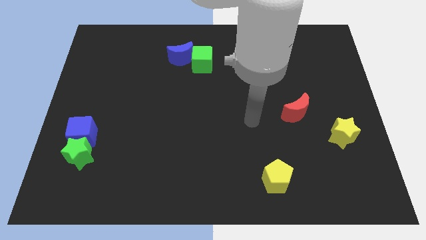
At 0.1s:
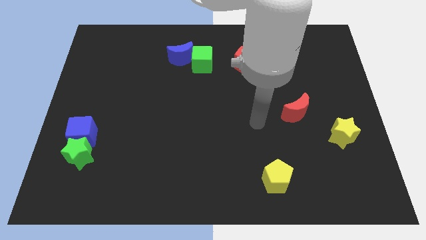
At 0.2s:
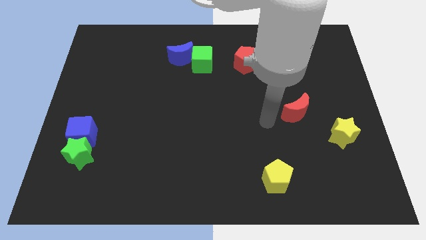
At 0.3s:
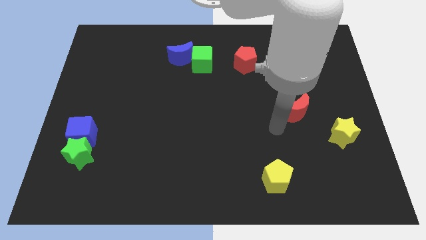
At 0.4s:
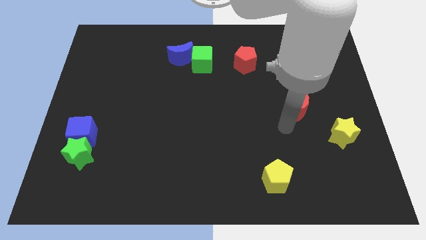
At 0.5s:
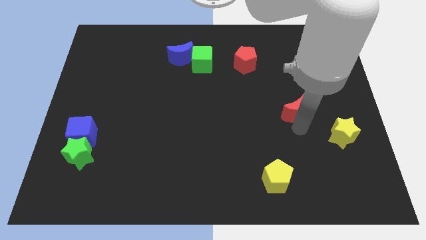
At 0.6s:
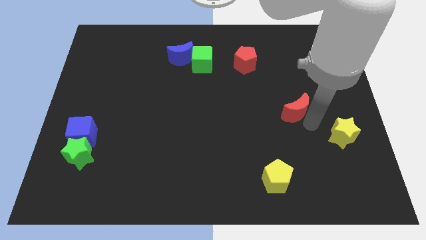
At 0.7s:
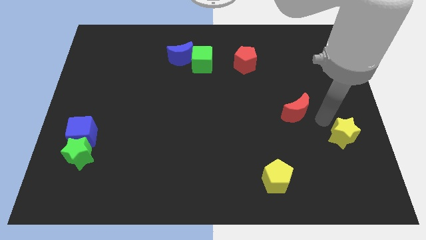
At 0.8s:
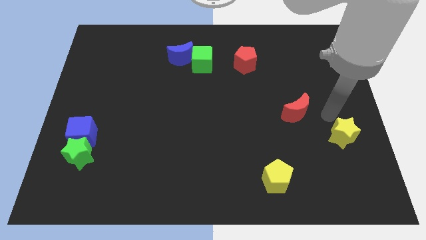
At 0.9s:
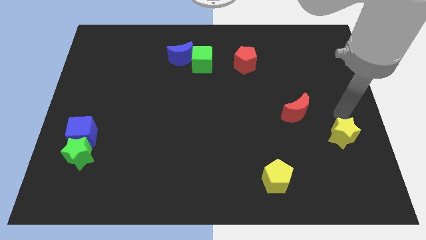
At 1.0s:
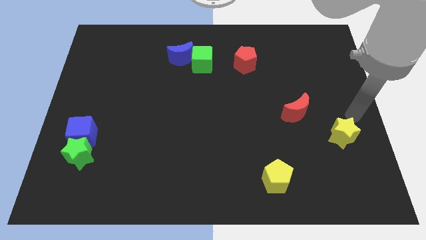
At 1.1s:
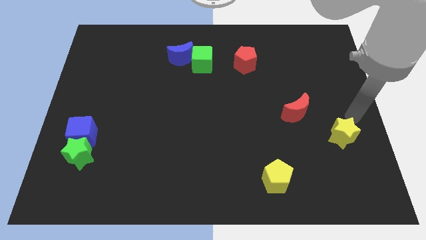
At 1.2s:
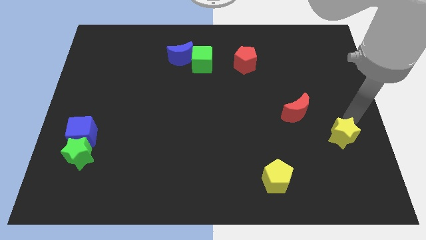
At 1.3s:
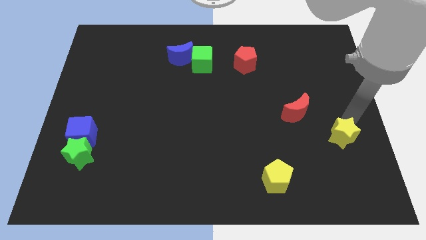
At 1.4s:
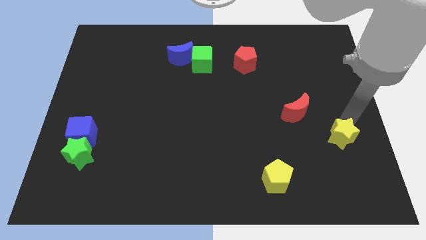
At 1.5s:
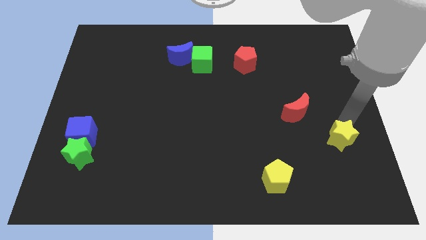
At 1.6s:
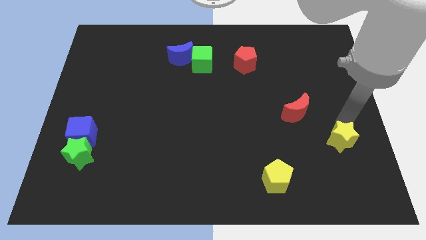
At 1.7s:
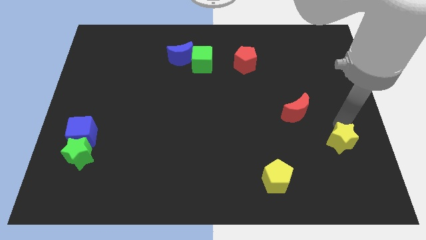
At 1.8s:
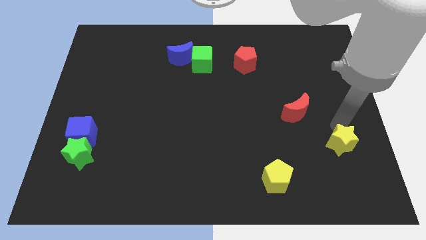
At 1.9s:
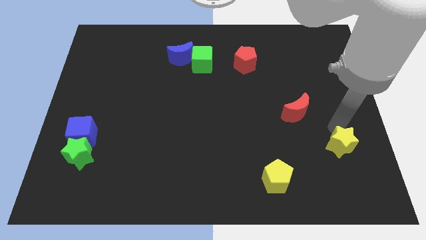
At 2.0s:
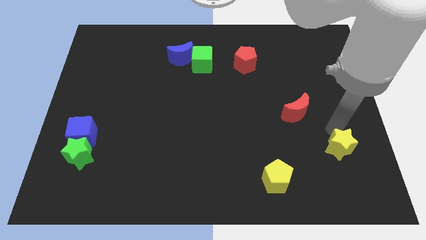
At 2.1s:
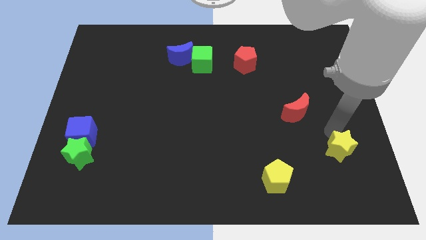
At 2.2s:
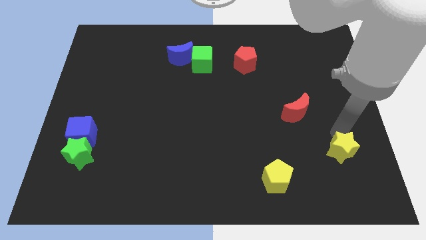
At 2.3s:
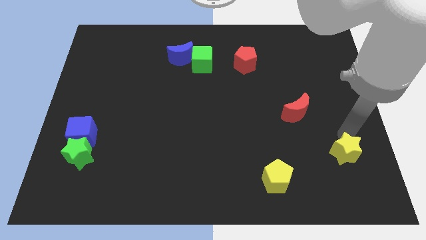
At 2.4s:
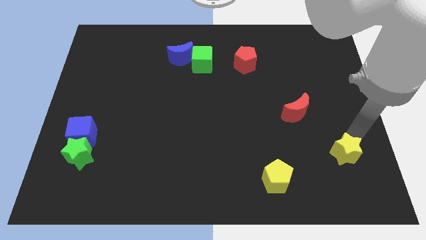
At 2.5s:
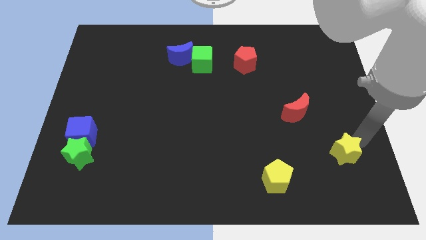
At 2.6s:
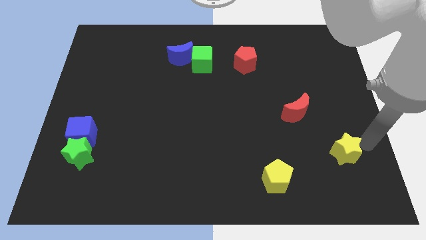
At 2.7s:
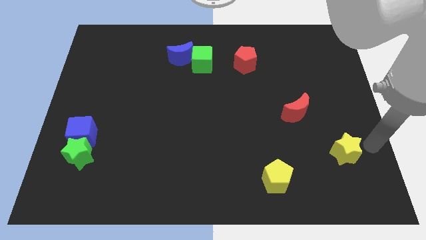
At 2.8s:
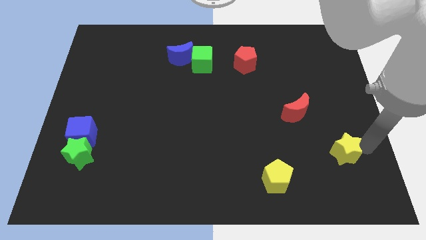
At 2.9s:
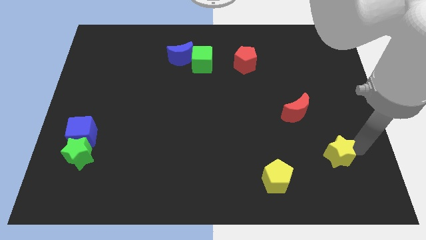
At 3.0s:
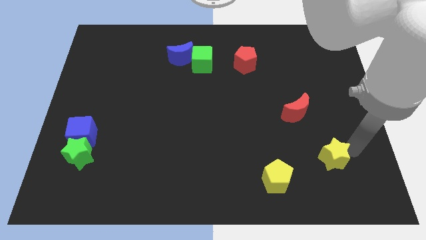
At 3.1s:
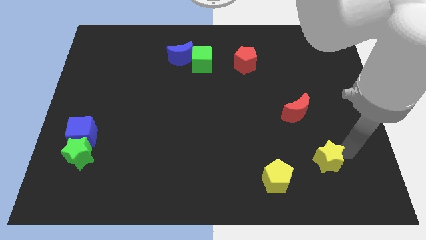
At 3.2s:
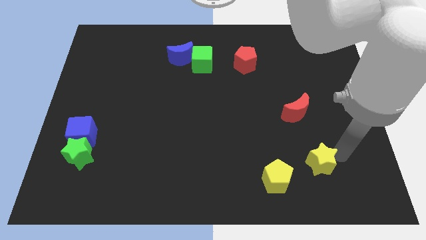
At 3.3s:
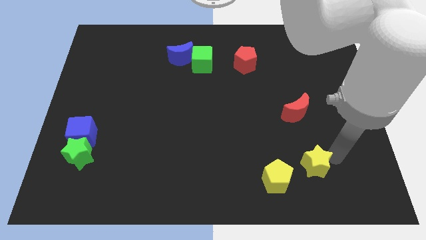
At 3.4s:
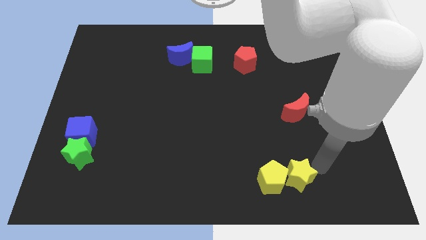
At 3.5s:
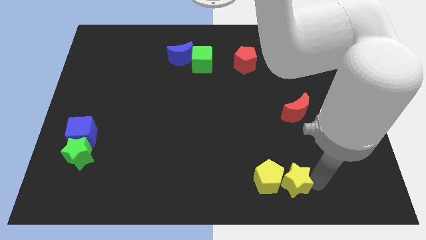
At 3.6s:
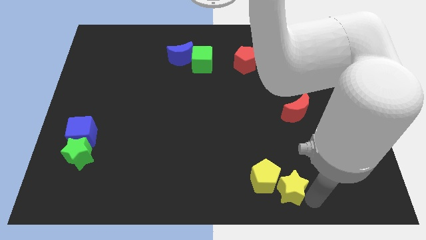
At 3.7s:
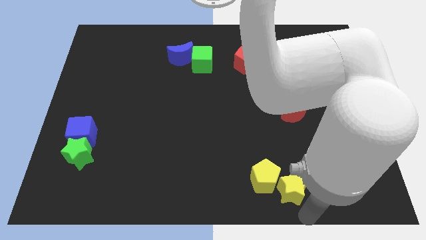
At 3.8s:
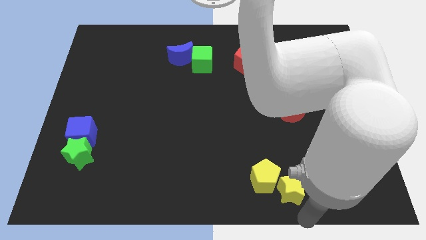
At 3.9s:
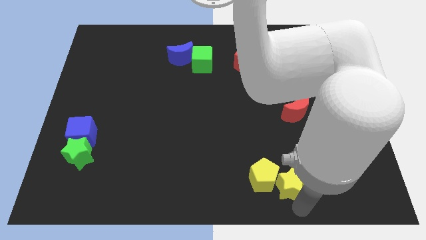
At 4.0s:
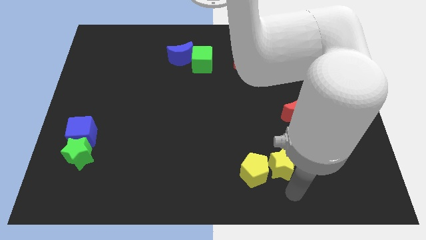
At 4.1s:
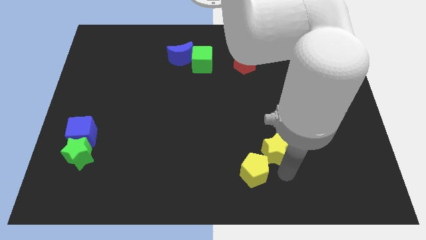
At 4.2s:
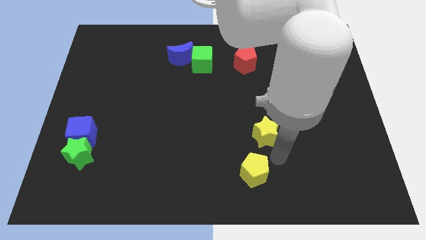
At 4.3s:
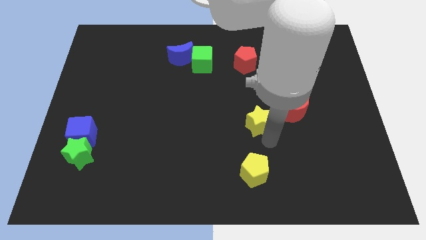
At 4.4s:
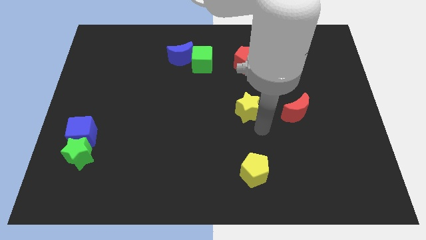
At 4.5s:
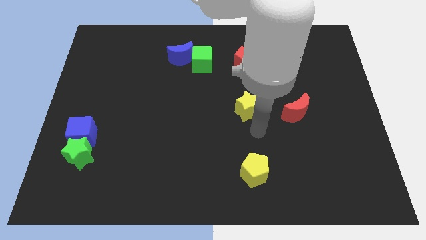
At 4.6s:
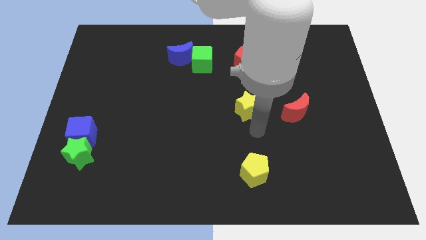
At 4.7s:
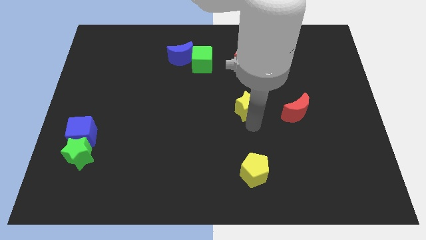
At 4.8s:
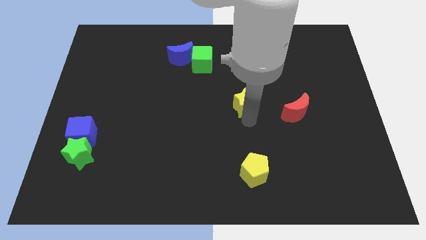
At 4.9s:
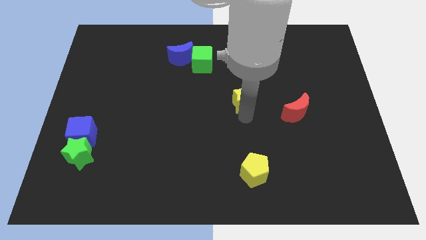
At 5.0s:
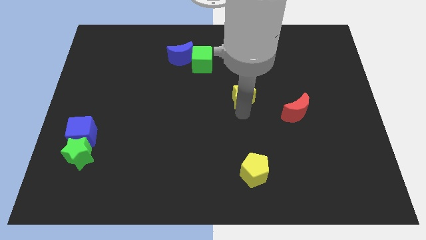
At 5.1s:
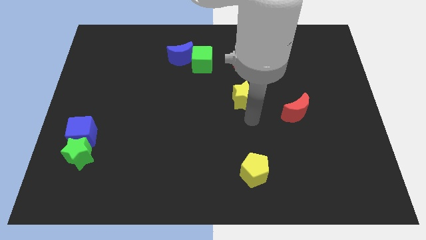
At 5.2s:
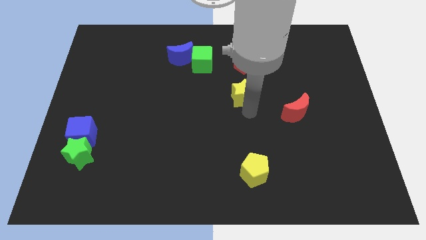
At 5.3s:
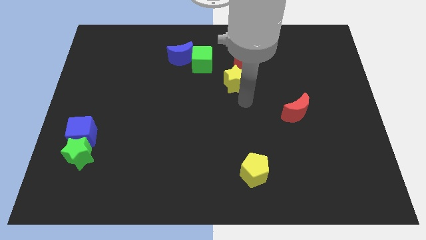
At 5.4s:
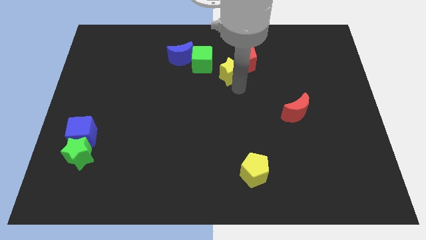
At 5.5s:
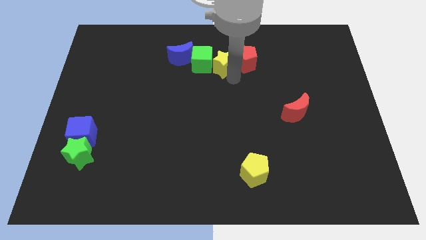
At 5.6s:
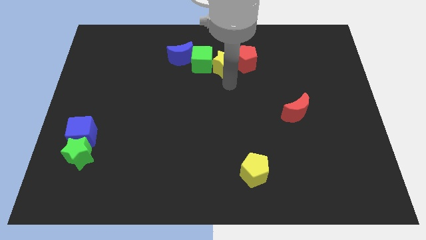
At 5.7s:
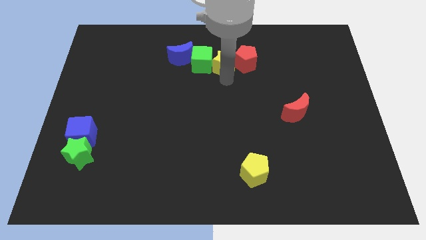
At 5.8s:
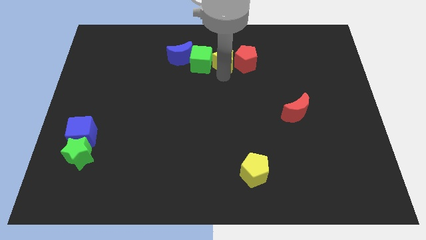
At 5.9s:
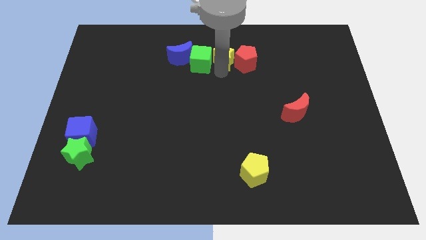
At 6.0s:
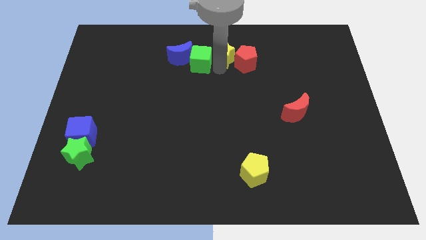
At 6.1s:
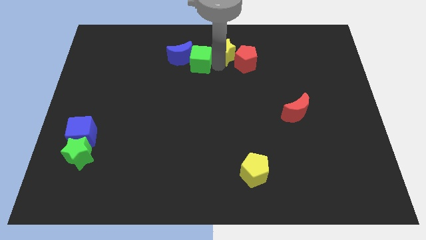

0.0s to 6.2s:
move the yellow star to the towards your base

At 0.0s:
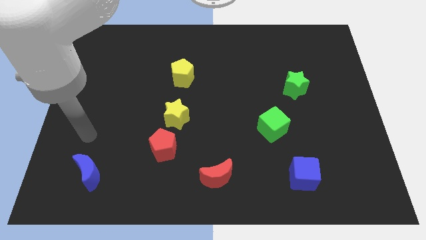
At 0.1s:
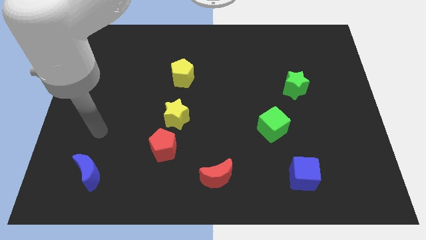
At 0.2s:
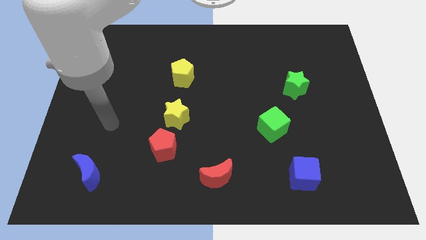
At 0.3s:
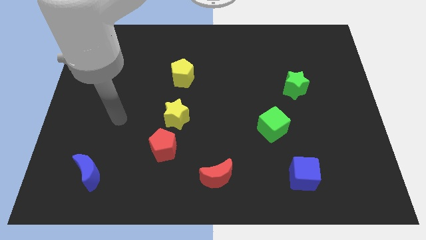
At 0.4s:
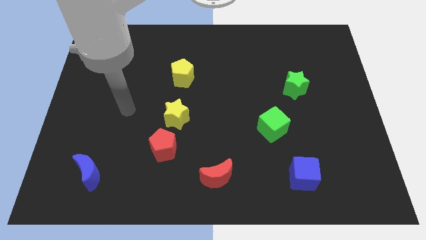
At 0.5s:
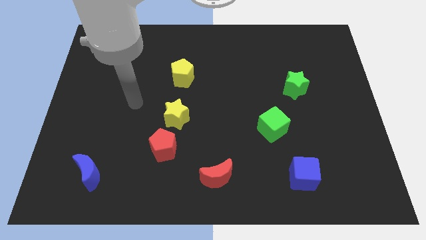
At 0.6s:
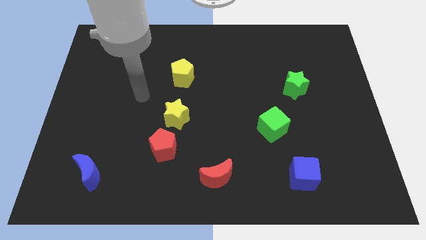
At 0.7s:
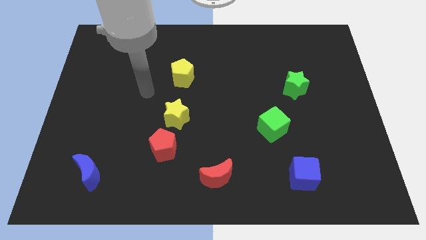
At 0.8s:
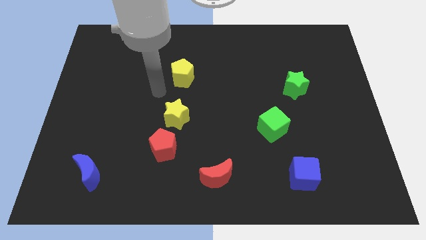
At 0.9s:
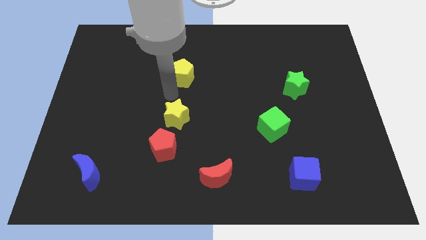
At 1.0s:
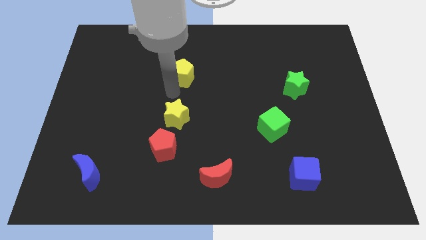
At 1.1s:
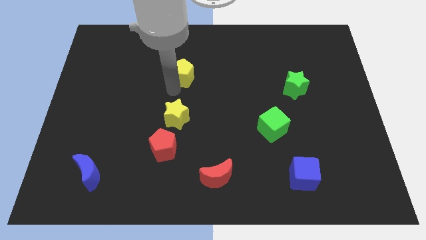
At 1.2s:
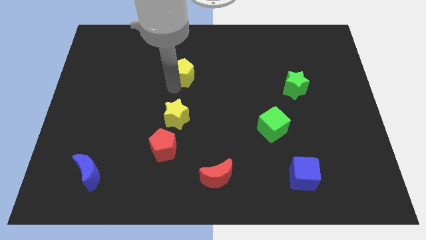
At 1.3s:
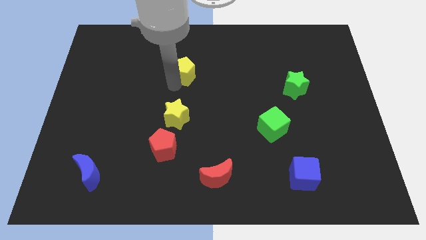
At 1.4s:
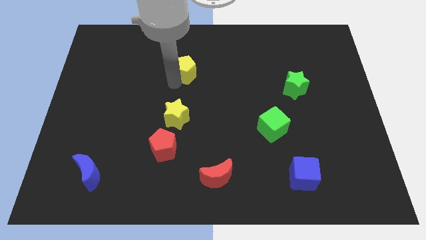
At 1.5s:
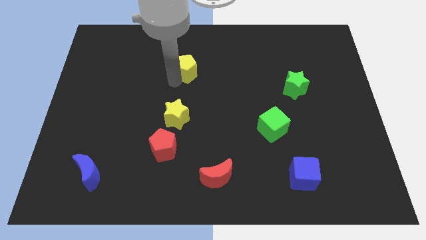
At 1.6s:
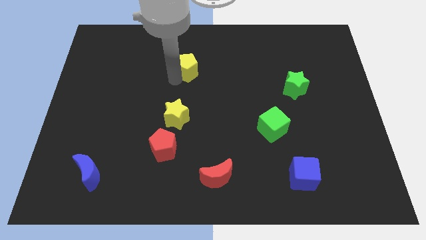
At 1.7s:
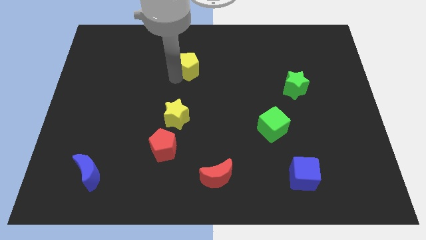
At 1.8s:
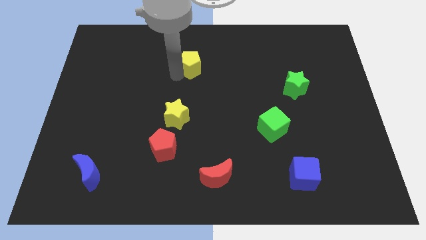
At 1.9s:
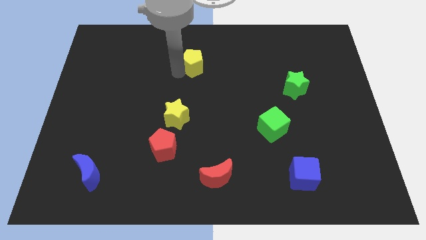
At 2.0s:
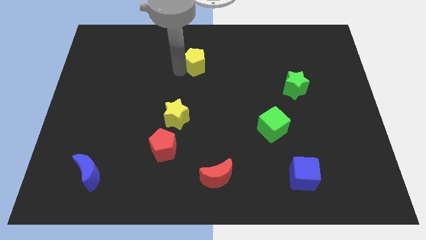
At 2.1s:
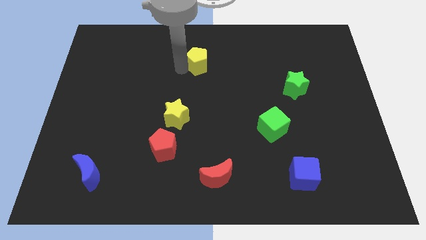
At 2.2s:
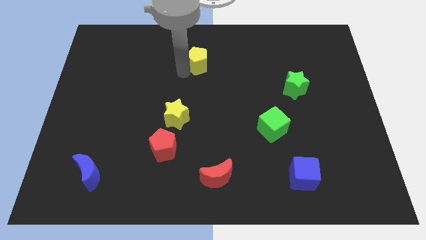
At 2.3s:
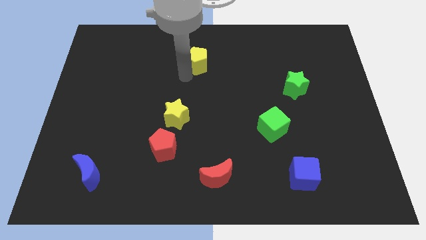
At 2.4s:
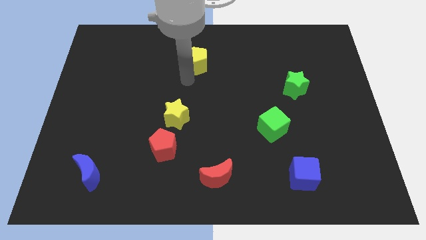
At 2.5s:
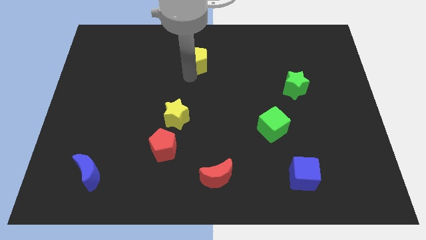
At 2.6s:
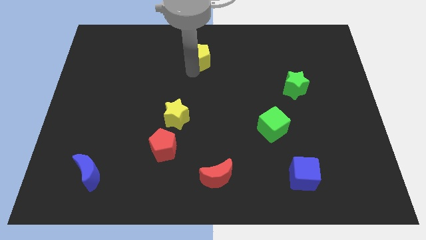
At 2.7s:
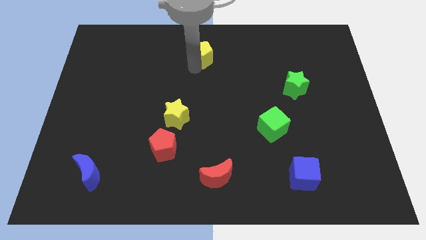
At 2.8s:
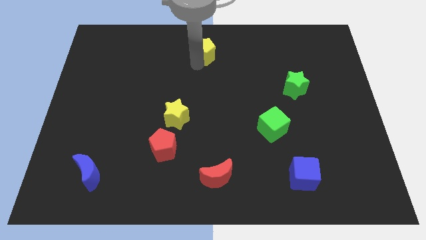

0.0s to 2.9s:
slide the yellow pentagon to the top side
